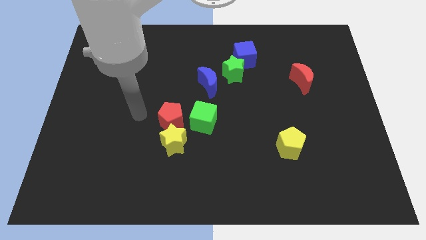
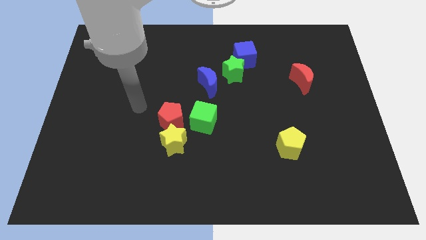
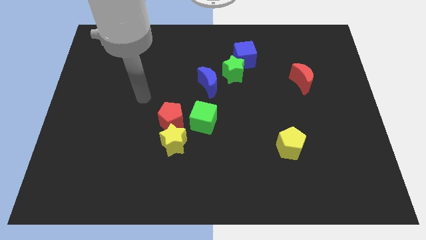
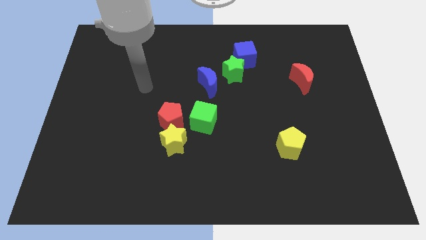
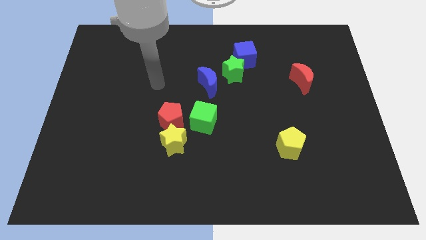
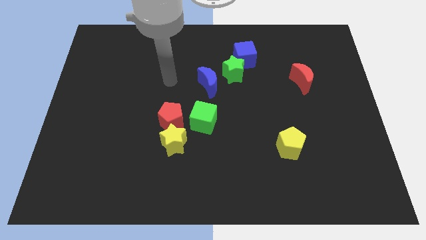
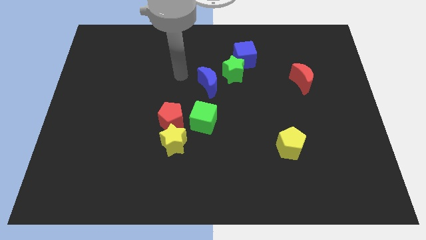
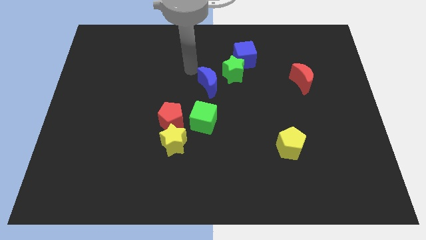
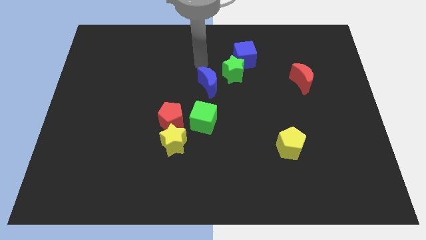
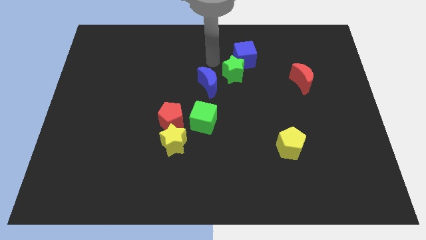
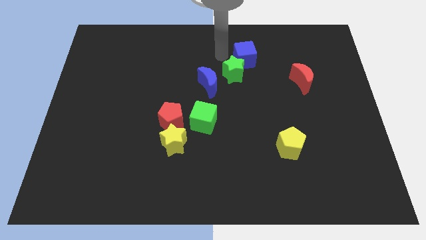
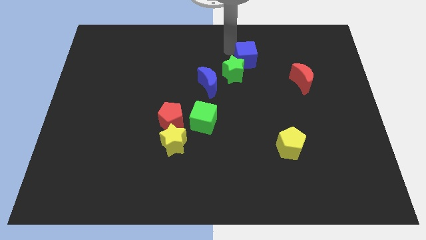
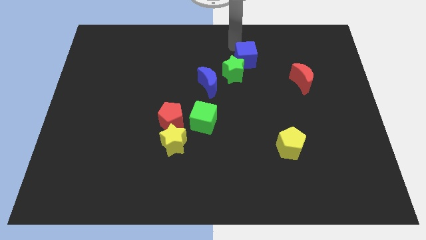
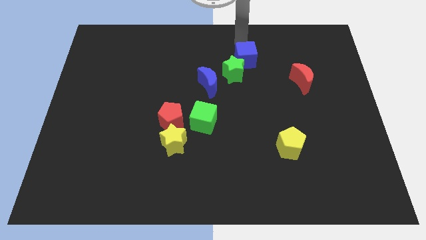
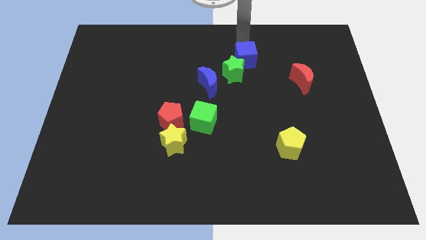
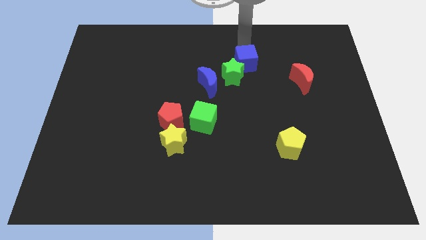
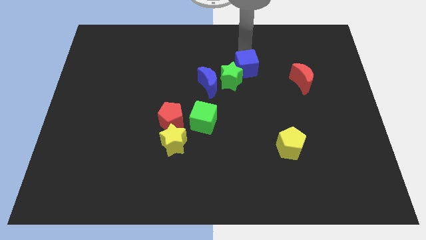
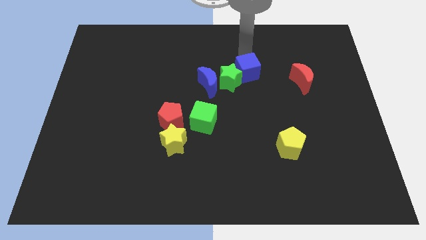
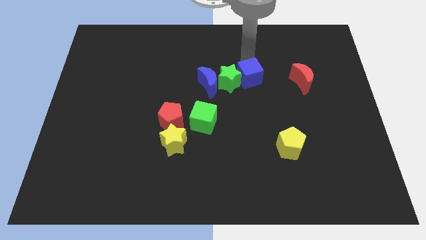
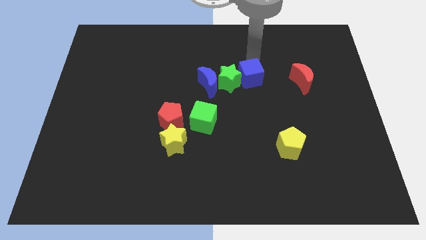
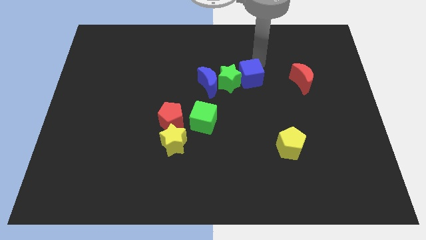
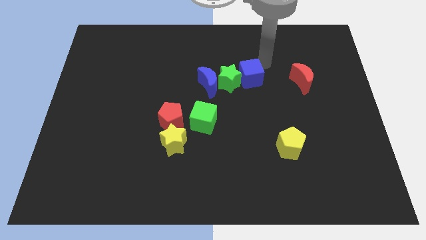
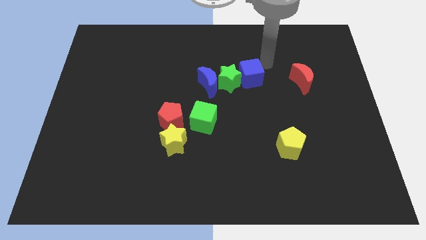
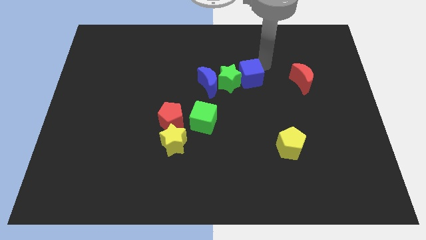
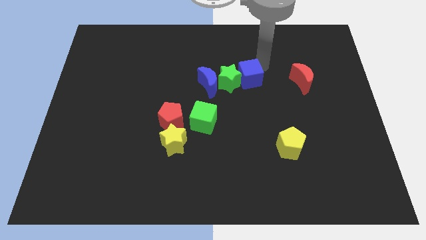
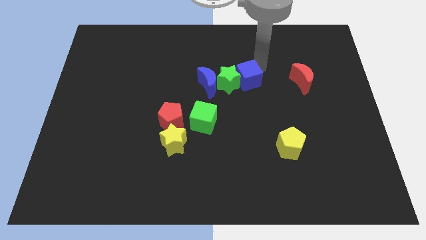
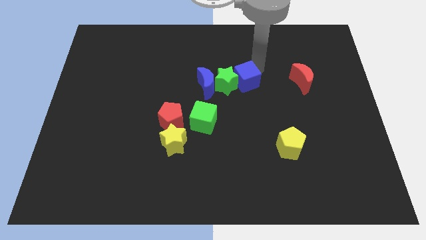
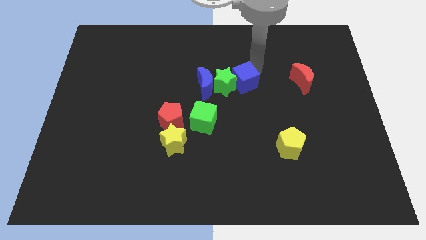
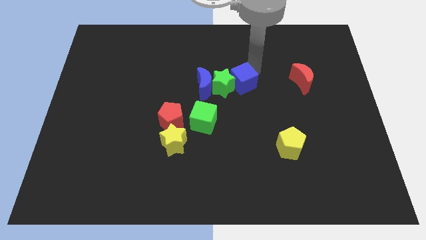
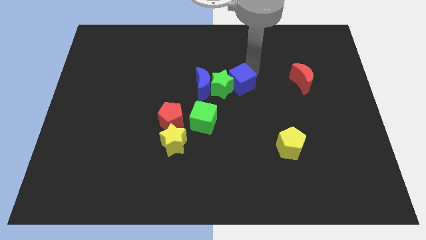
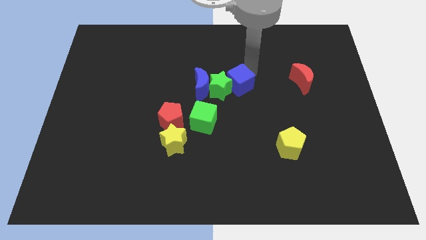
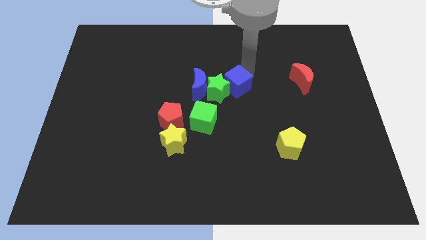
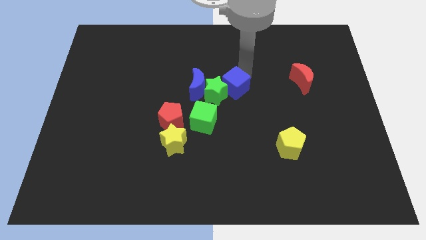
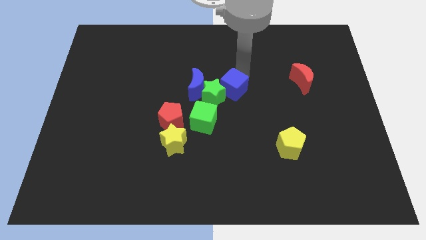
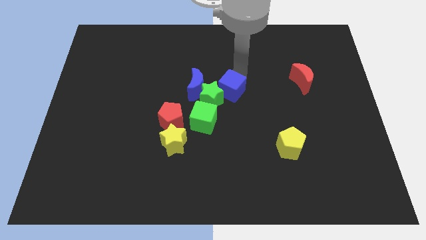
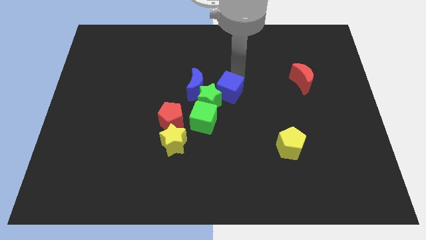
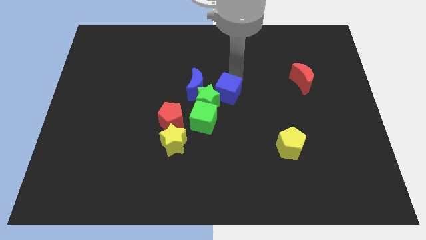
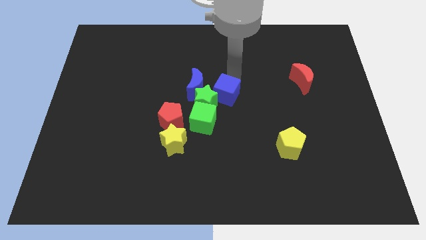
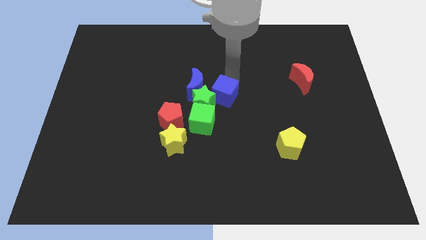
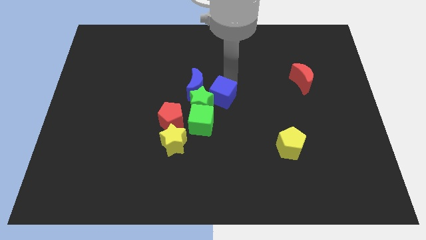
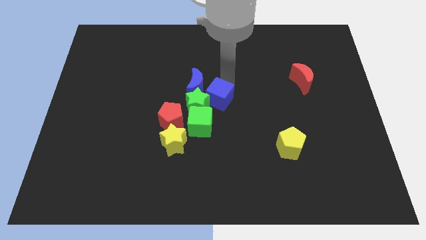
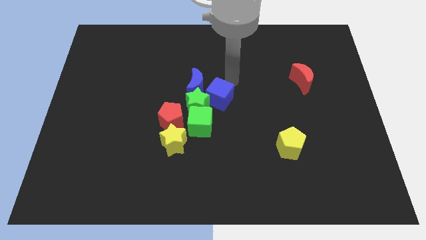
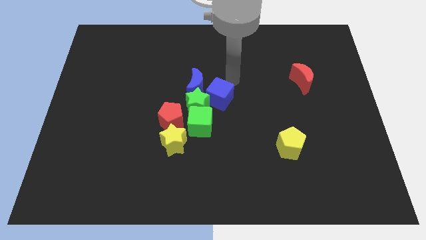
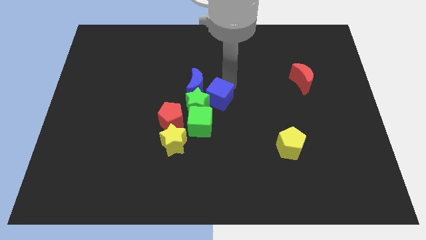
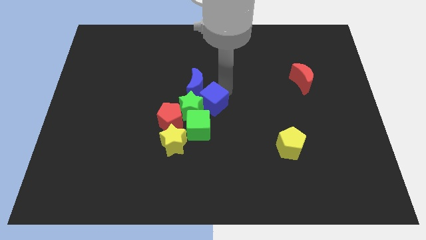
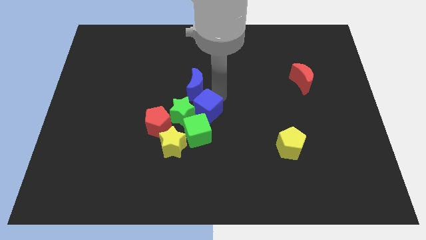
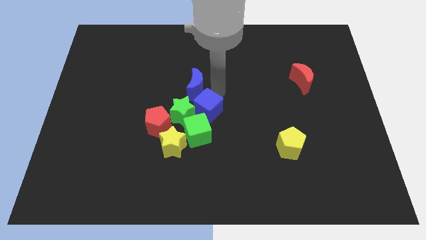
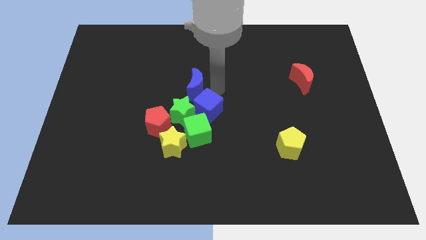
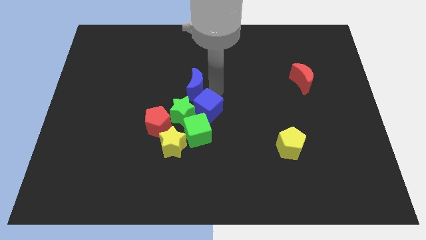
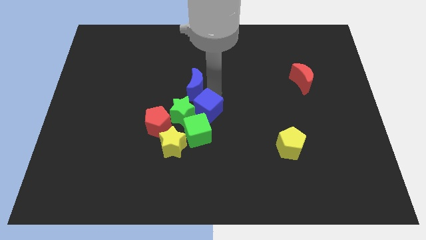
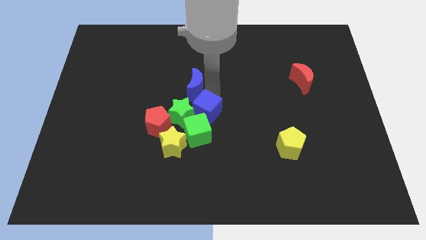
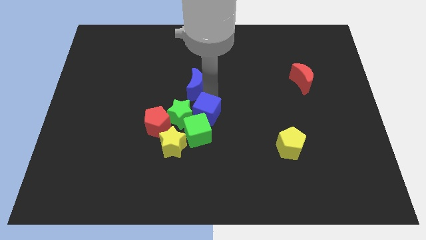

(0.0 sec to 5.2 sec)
slide the blue cube next to the green cube

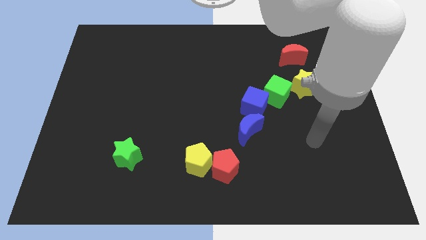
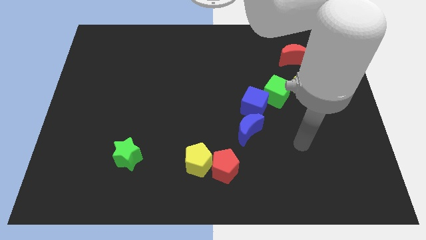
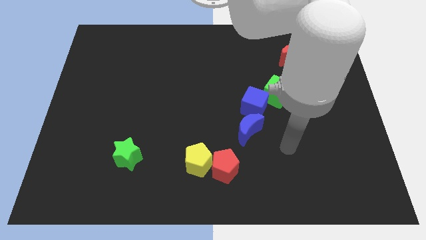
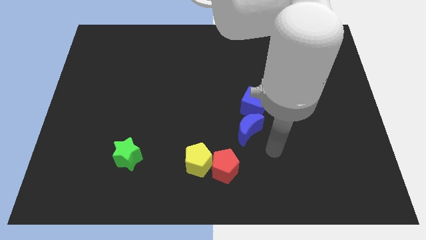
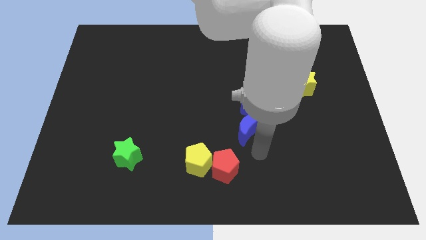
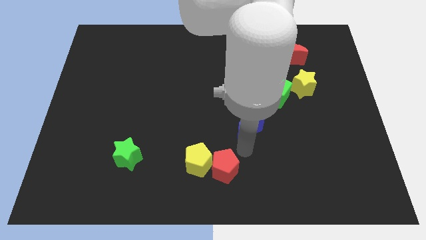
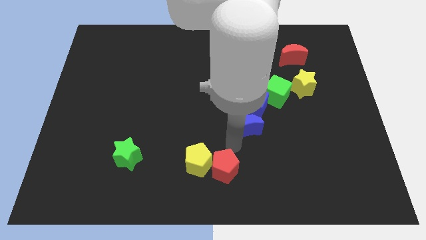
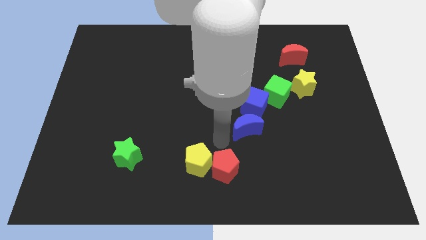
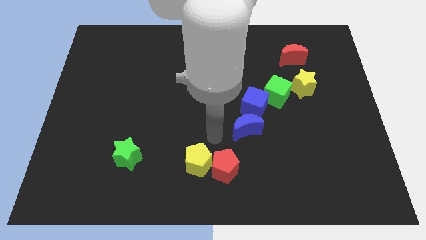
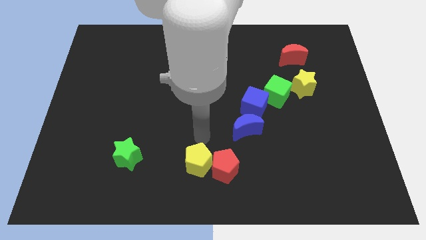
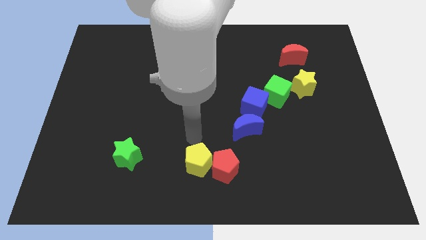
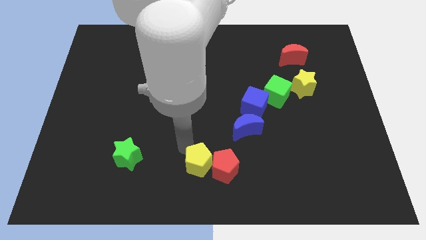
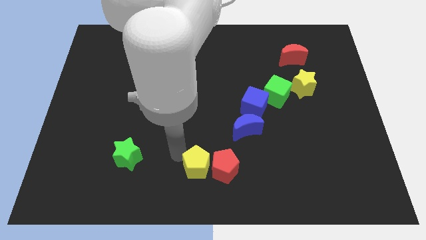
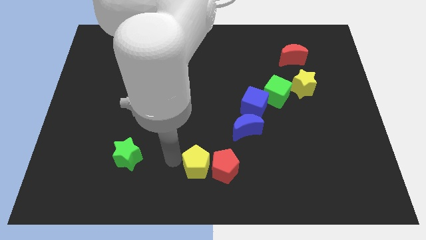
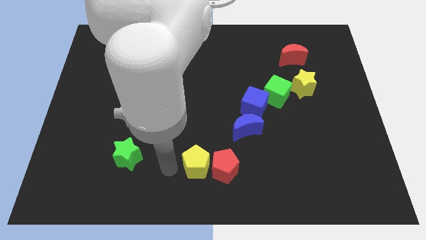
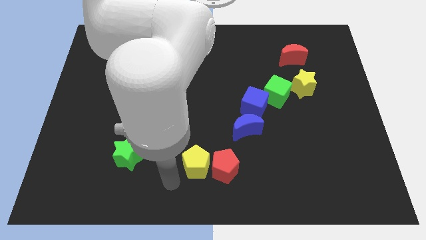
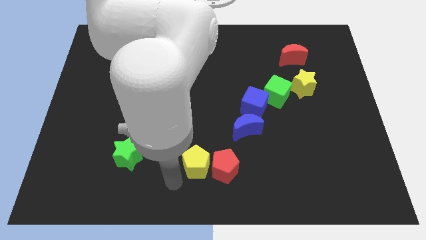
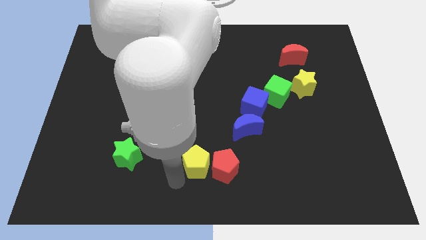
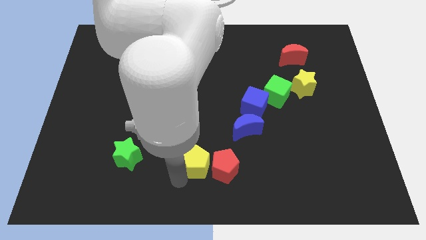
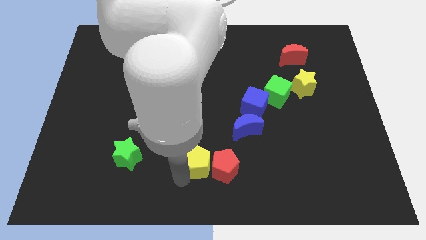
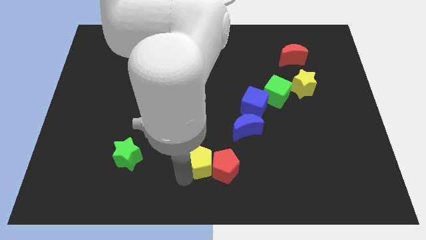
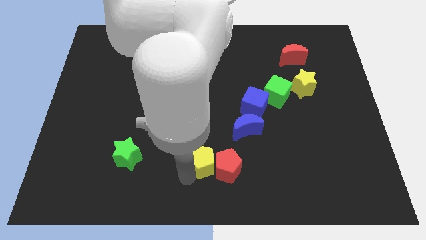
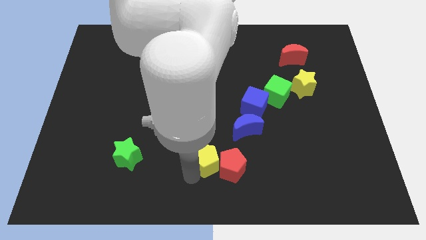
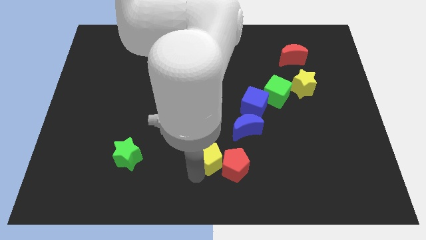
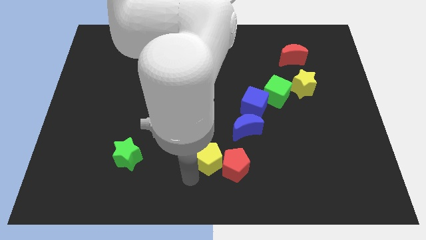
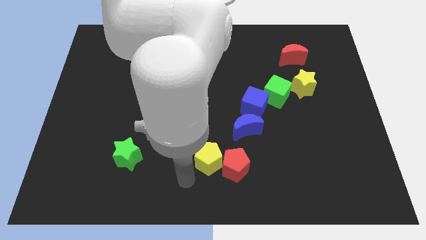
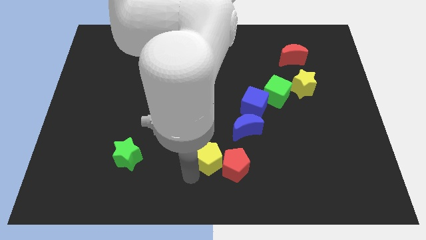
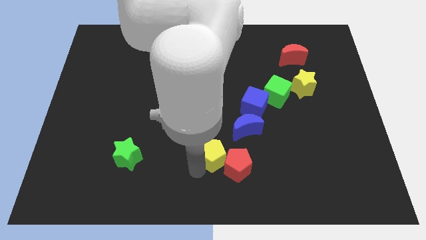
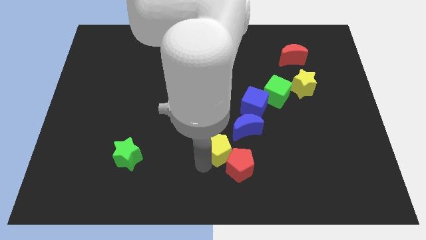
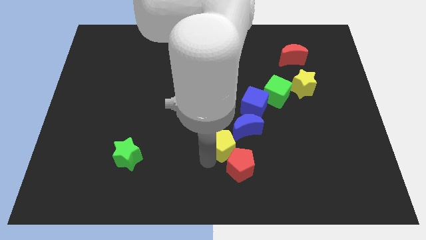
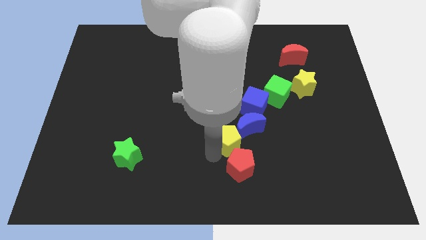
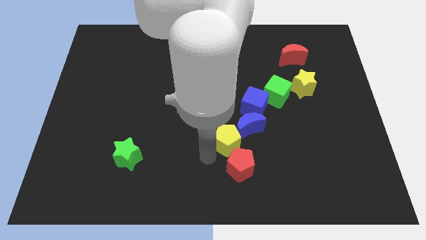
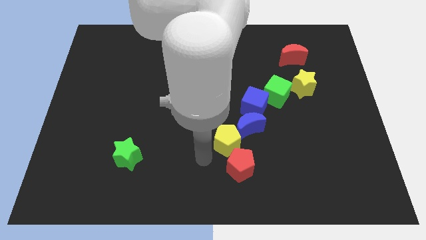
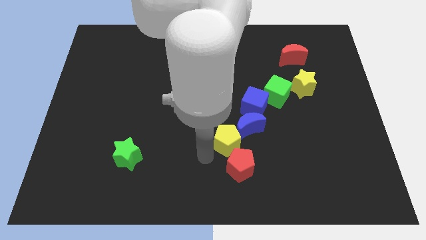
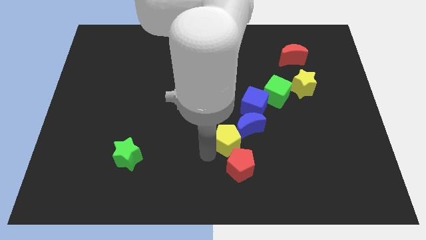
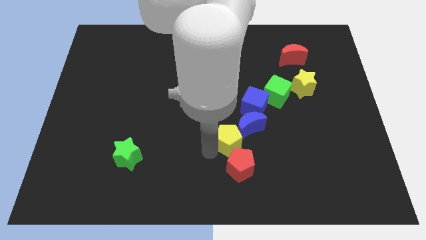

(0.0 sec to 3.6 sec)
push the yellow pentagon to the blue moon
